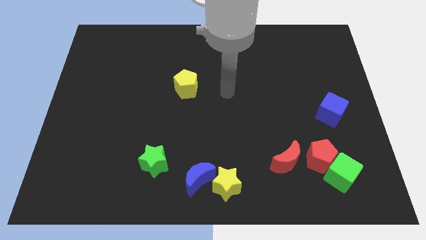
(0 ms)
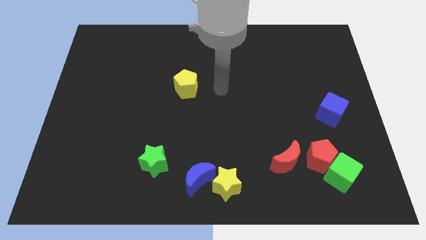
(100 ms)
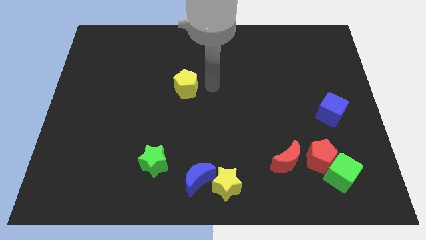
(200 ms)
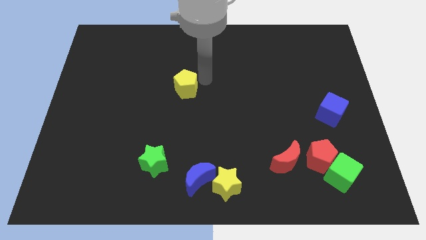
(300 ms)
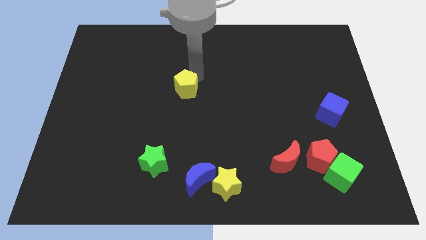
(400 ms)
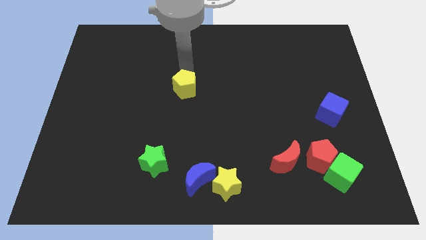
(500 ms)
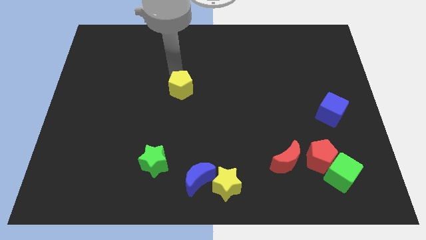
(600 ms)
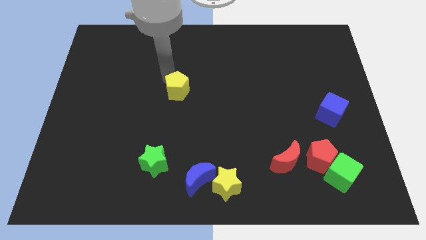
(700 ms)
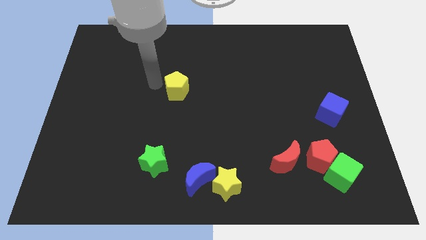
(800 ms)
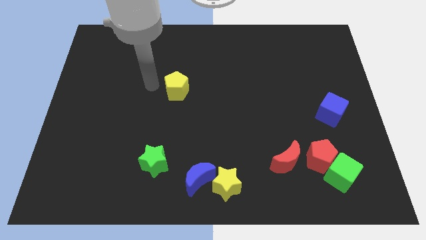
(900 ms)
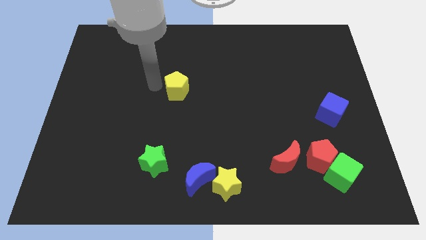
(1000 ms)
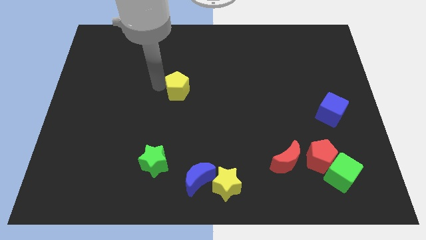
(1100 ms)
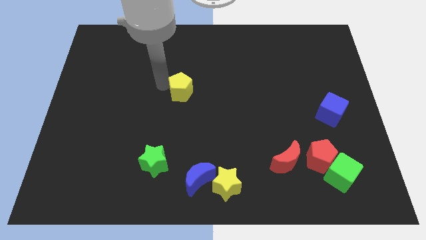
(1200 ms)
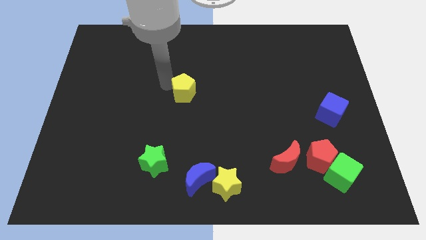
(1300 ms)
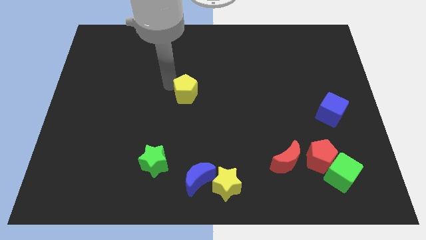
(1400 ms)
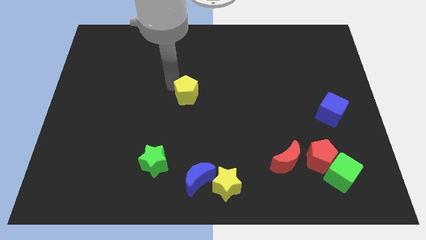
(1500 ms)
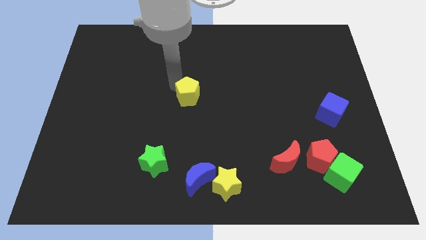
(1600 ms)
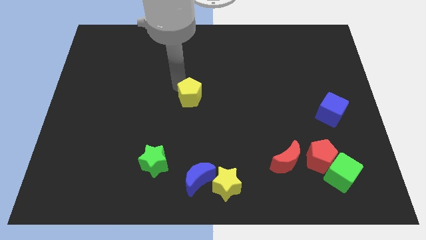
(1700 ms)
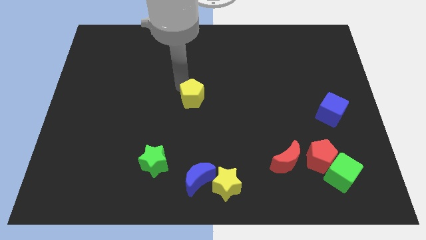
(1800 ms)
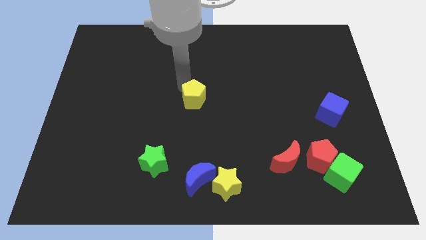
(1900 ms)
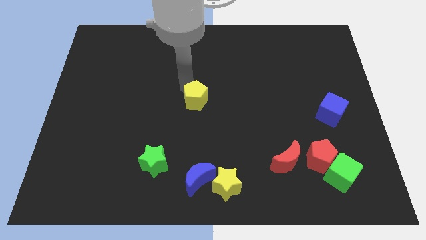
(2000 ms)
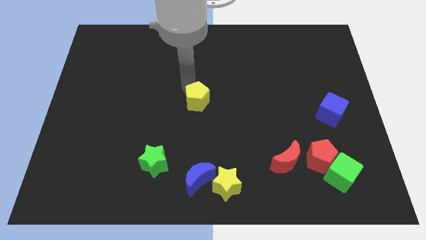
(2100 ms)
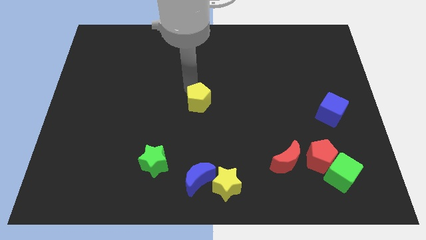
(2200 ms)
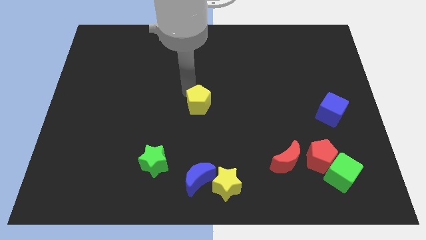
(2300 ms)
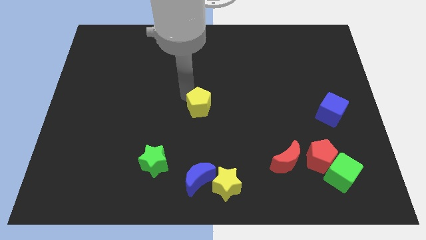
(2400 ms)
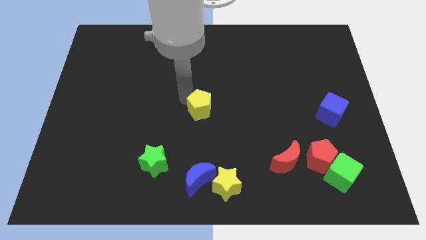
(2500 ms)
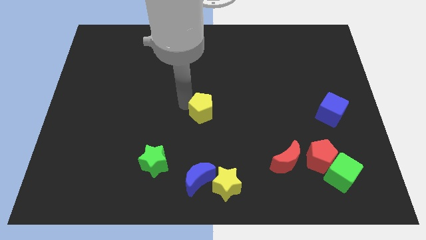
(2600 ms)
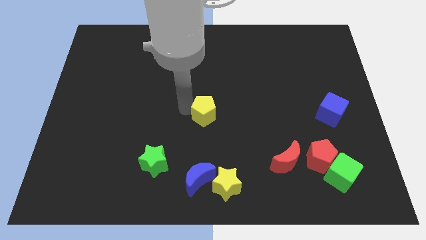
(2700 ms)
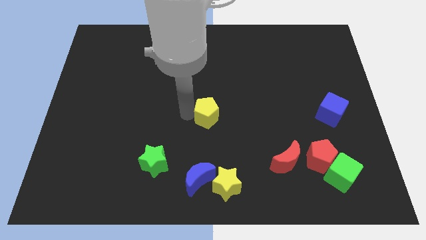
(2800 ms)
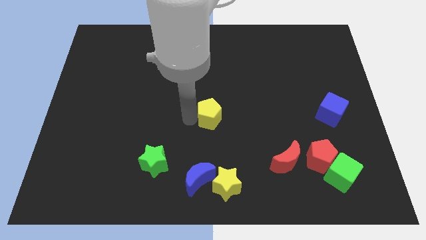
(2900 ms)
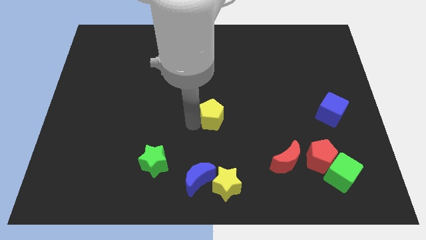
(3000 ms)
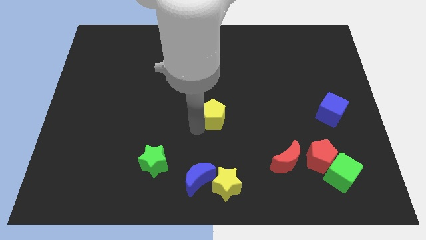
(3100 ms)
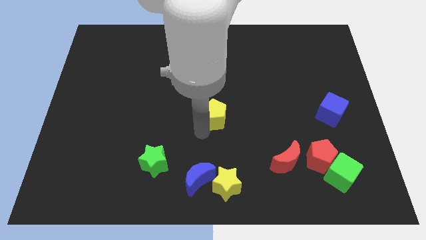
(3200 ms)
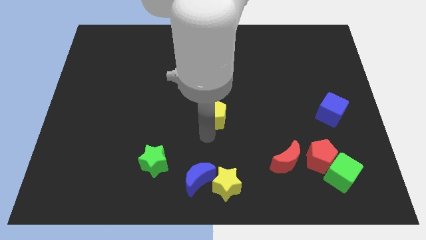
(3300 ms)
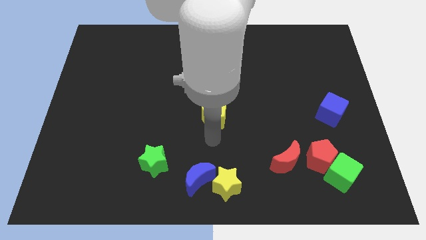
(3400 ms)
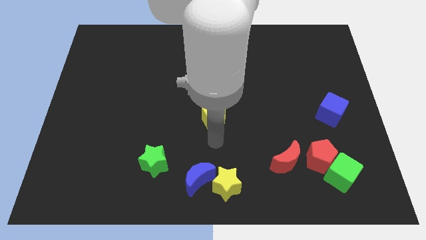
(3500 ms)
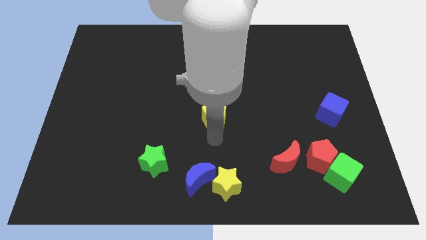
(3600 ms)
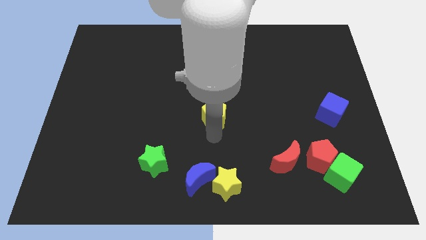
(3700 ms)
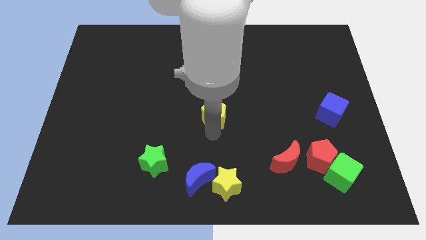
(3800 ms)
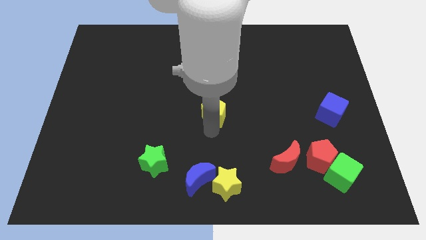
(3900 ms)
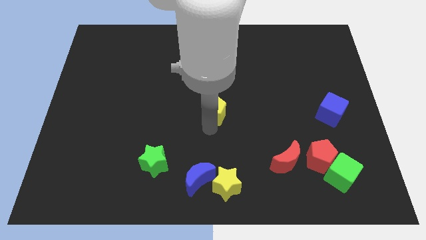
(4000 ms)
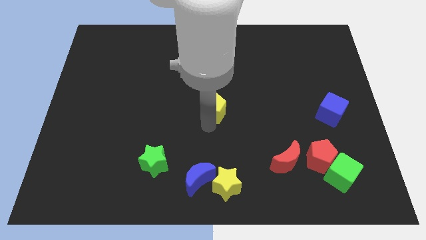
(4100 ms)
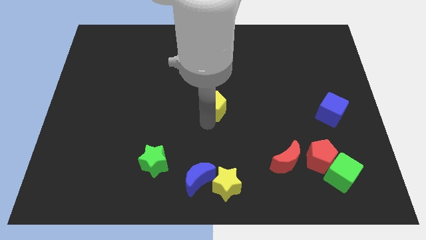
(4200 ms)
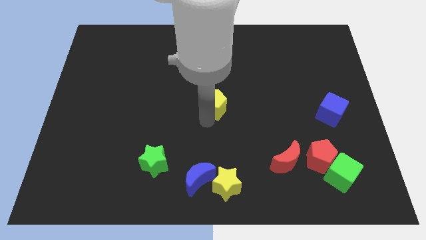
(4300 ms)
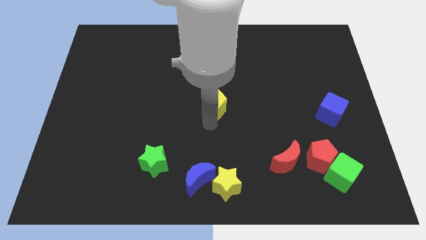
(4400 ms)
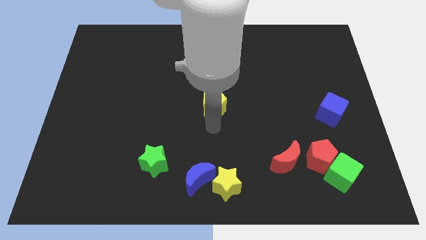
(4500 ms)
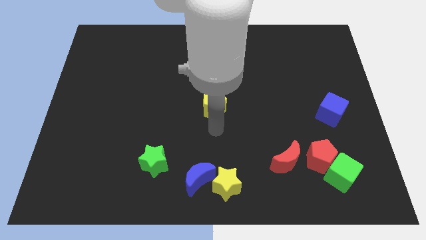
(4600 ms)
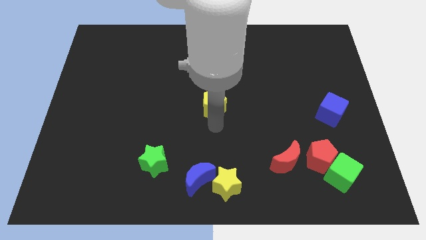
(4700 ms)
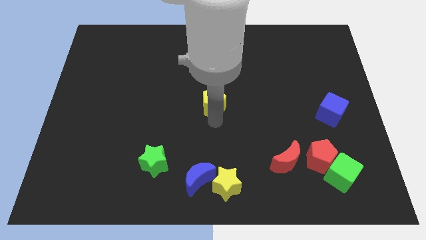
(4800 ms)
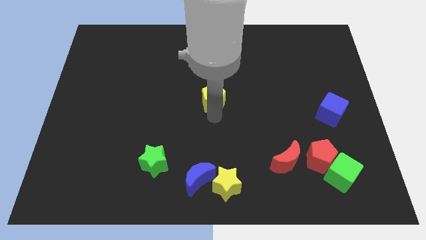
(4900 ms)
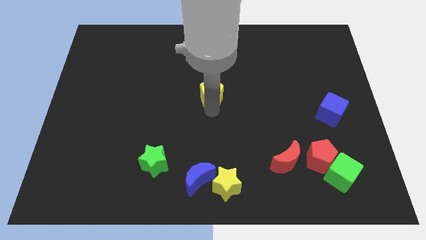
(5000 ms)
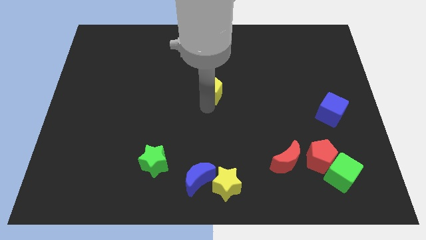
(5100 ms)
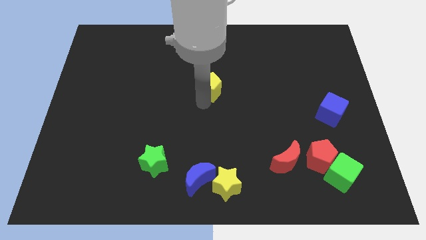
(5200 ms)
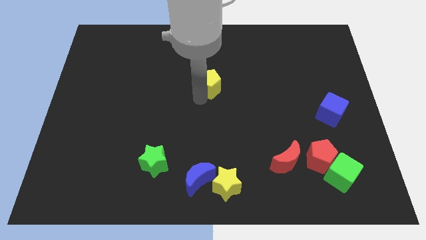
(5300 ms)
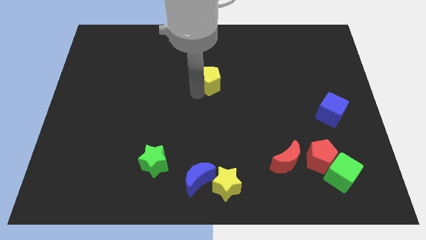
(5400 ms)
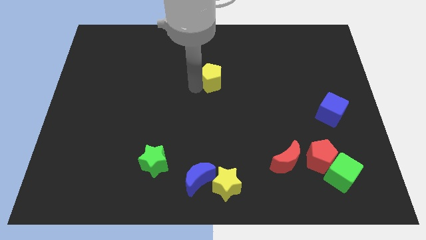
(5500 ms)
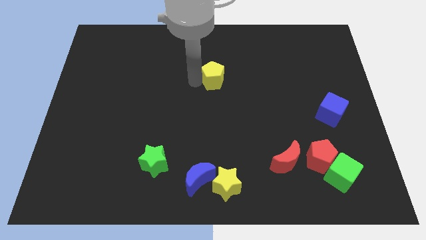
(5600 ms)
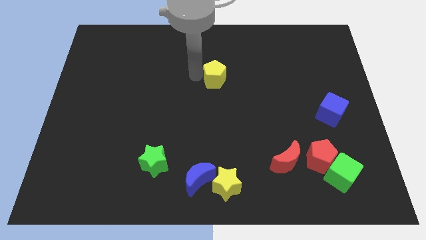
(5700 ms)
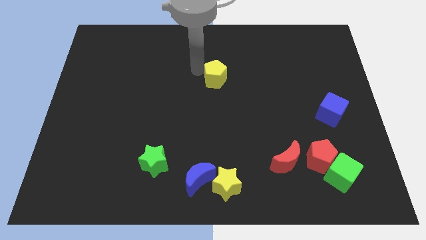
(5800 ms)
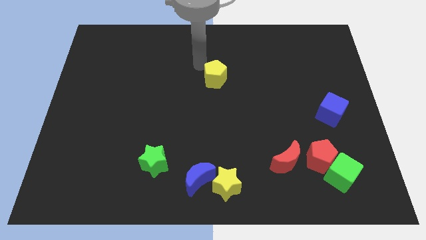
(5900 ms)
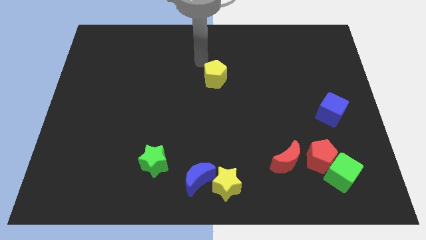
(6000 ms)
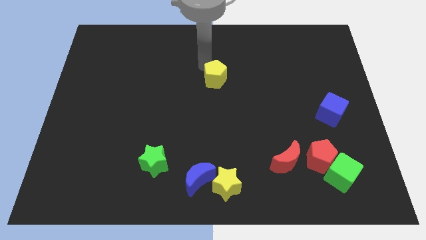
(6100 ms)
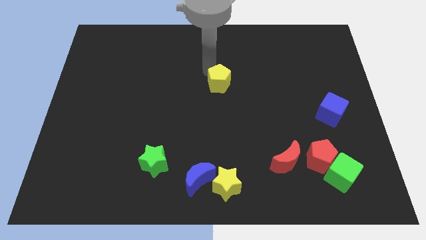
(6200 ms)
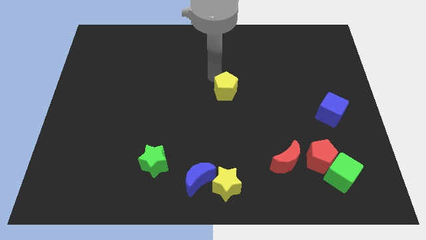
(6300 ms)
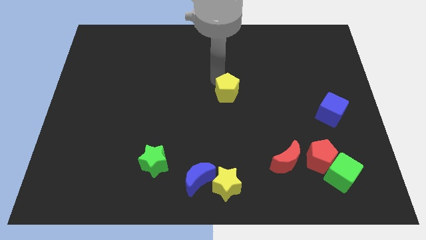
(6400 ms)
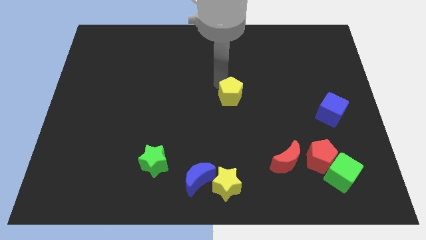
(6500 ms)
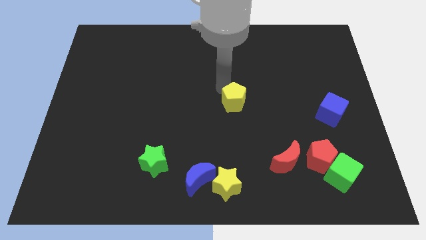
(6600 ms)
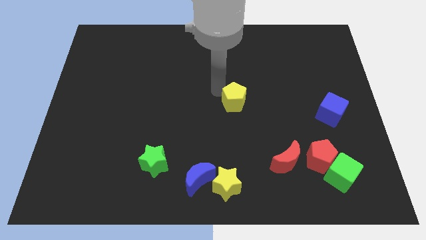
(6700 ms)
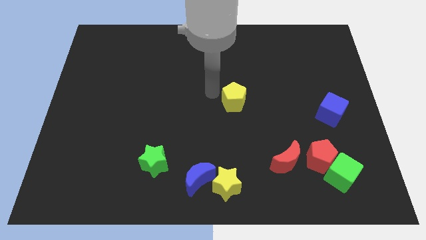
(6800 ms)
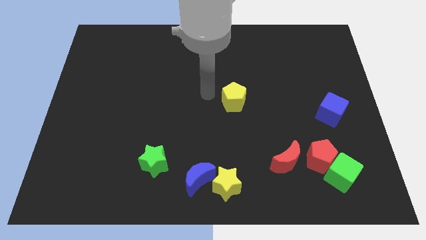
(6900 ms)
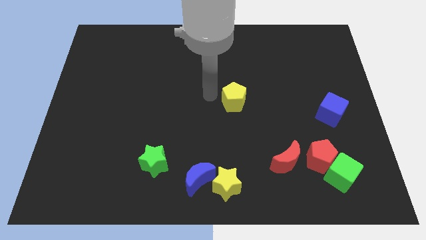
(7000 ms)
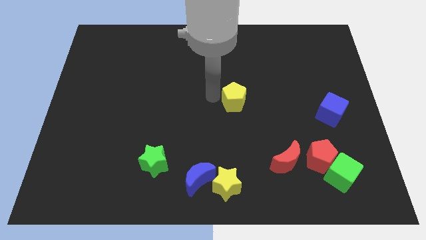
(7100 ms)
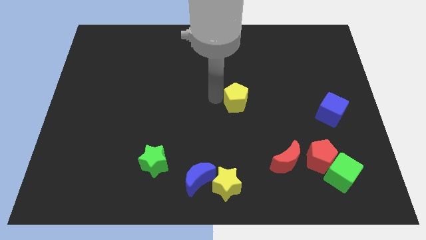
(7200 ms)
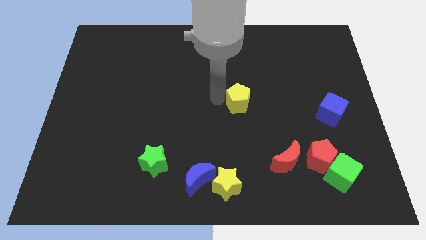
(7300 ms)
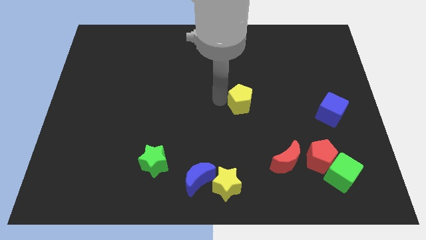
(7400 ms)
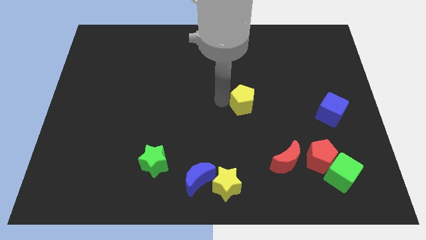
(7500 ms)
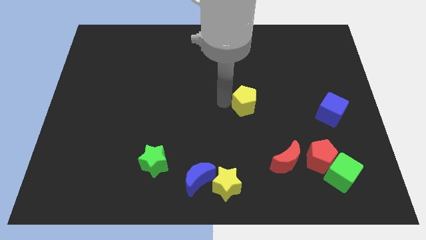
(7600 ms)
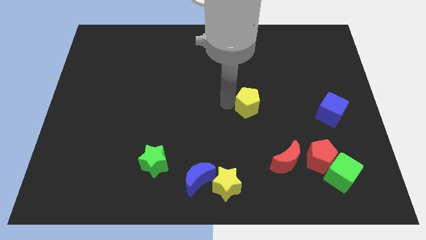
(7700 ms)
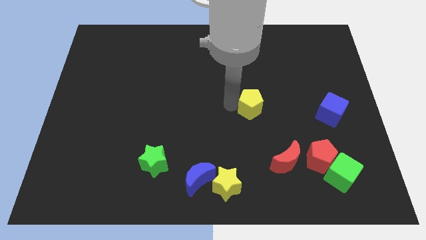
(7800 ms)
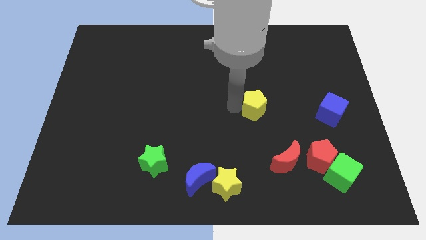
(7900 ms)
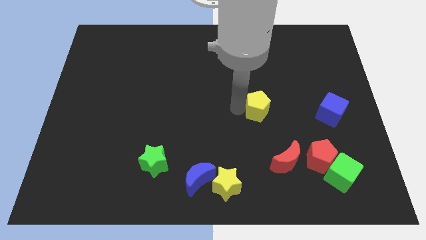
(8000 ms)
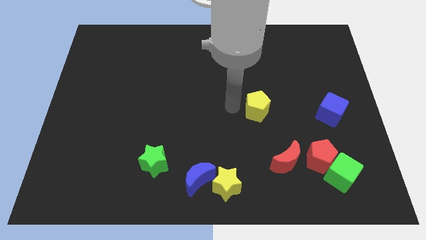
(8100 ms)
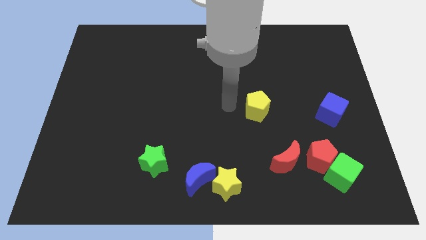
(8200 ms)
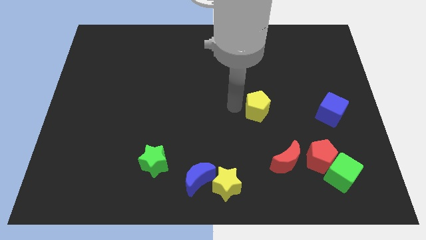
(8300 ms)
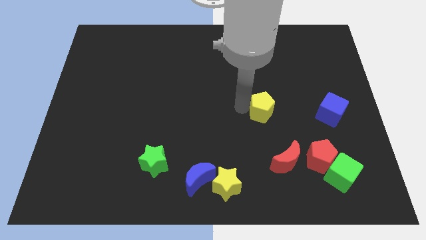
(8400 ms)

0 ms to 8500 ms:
slide the yellow pentagon to the left side of the blue cube
